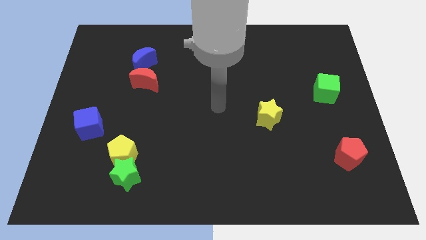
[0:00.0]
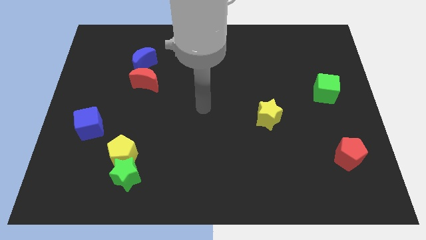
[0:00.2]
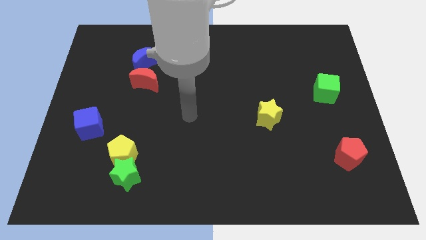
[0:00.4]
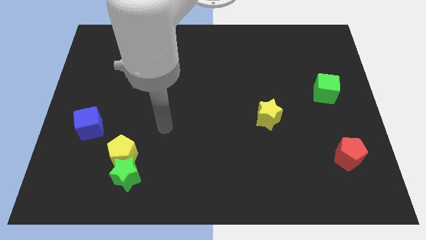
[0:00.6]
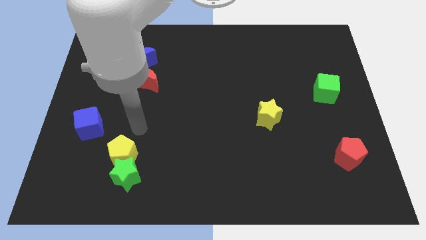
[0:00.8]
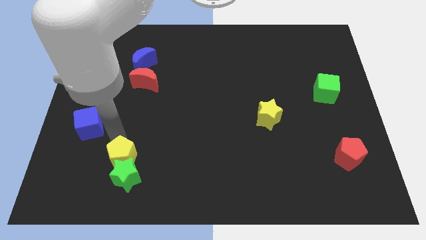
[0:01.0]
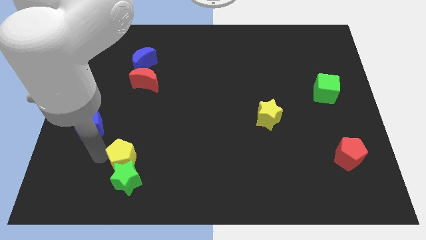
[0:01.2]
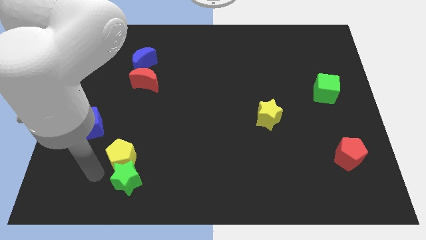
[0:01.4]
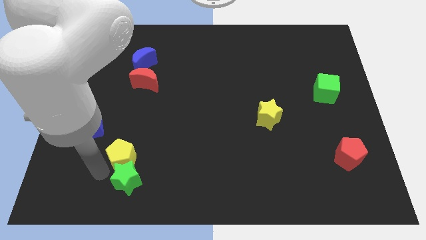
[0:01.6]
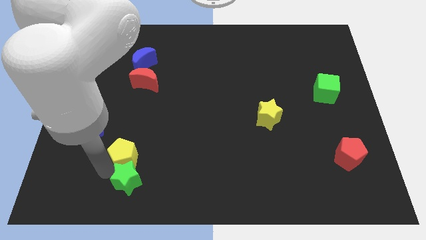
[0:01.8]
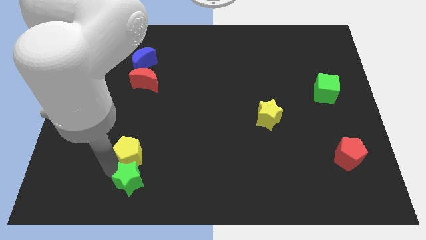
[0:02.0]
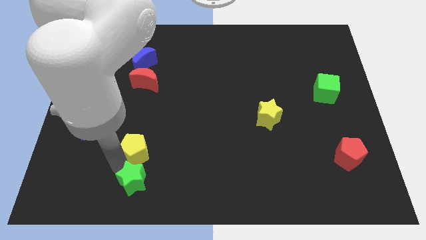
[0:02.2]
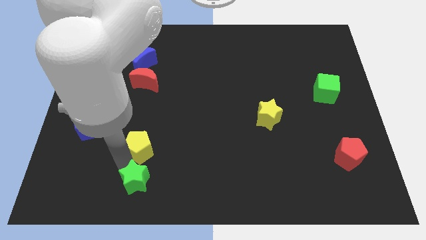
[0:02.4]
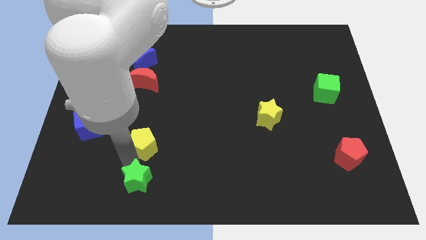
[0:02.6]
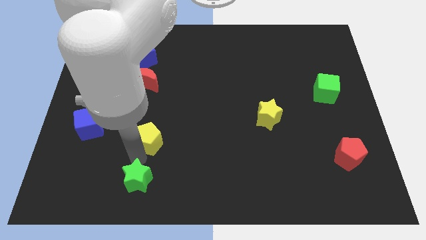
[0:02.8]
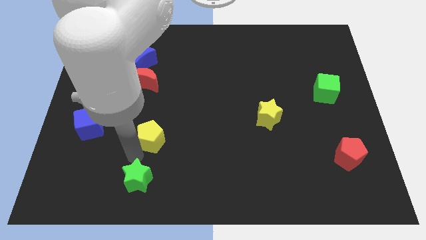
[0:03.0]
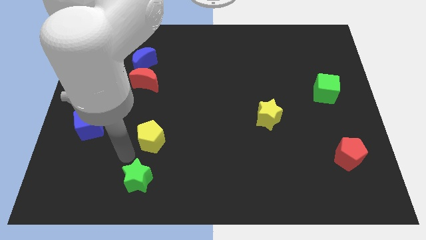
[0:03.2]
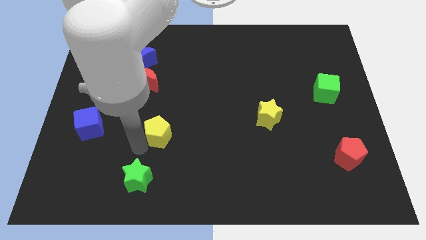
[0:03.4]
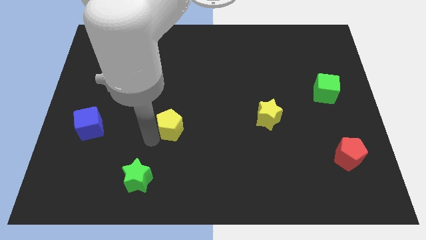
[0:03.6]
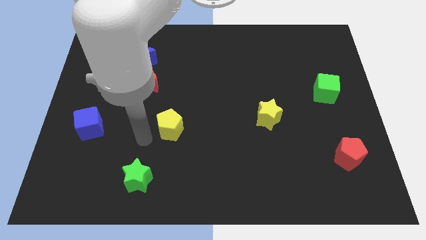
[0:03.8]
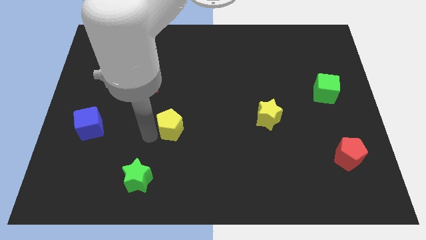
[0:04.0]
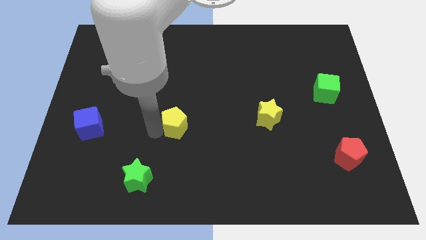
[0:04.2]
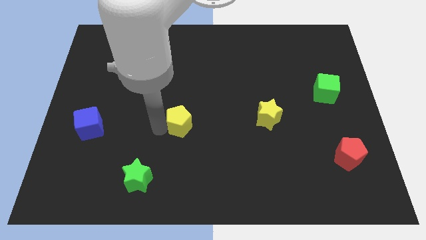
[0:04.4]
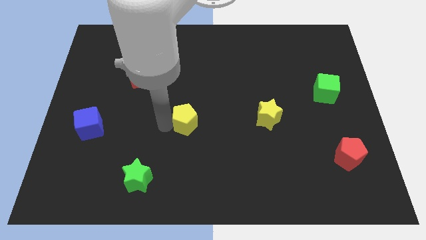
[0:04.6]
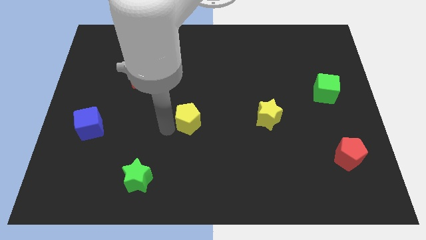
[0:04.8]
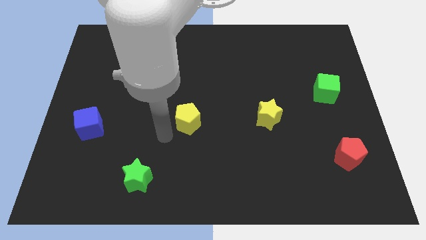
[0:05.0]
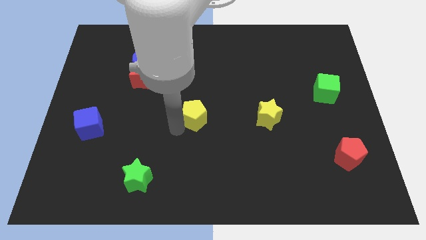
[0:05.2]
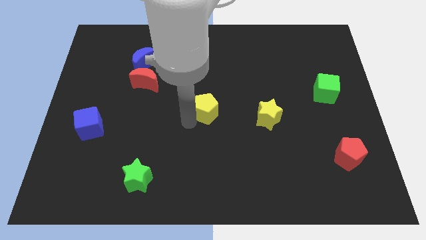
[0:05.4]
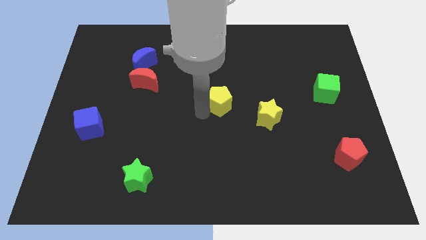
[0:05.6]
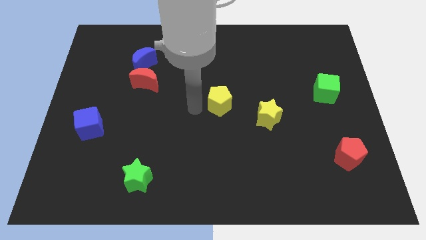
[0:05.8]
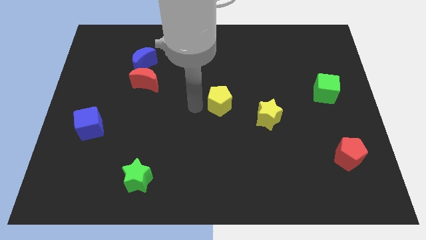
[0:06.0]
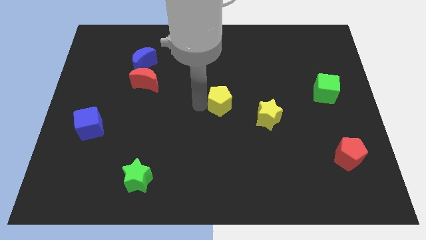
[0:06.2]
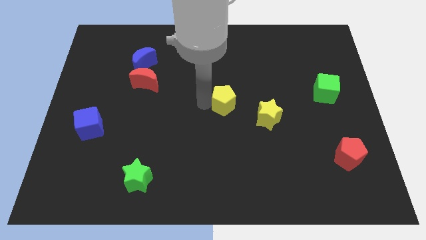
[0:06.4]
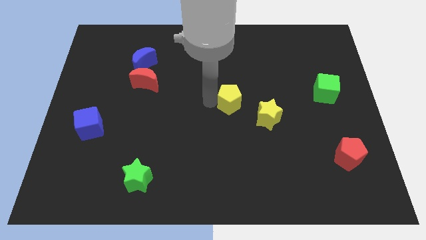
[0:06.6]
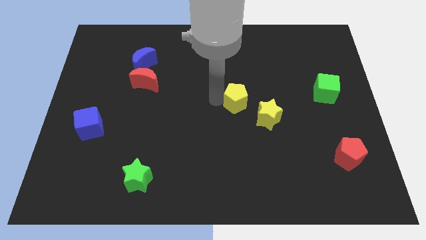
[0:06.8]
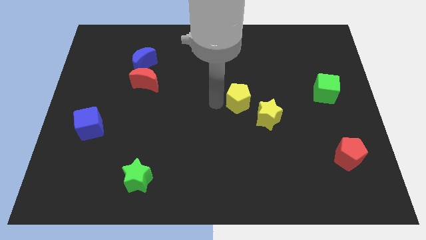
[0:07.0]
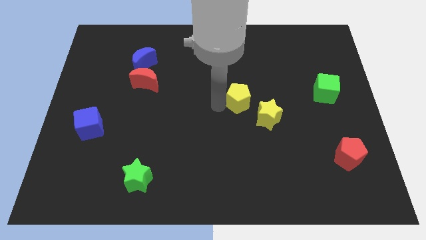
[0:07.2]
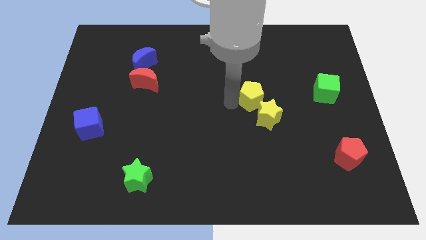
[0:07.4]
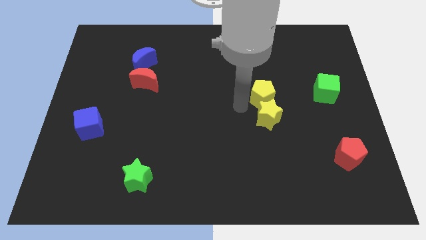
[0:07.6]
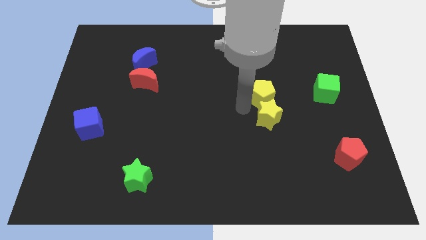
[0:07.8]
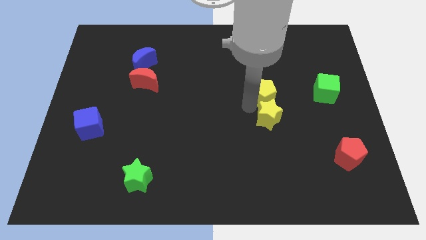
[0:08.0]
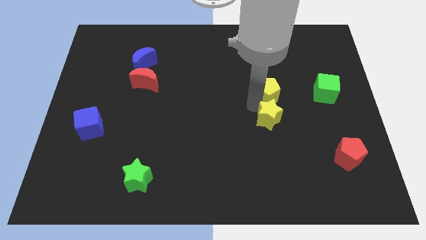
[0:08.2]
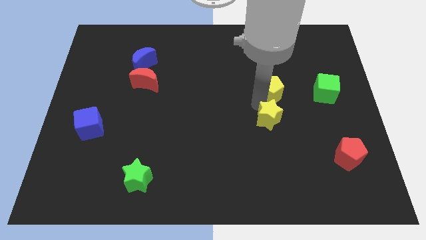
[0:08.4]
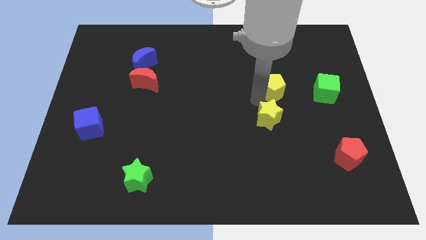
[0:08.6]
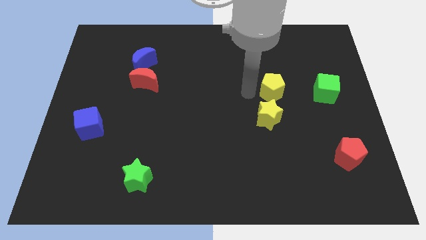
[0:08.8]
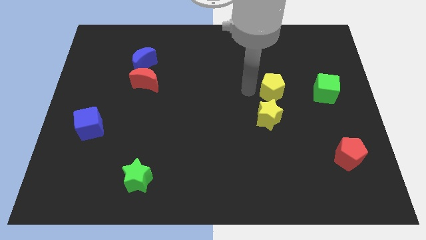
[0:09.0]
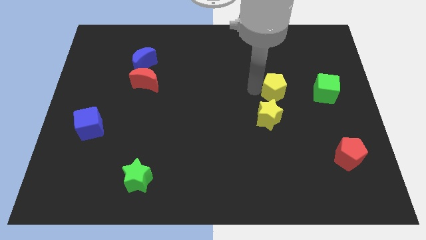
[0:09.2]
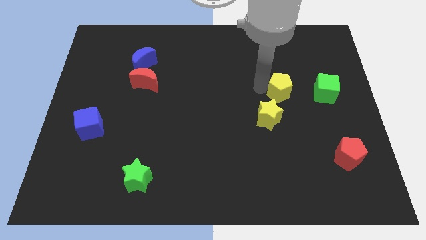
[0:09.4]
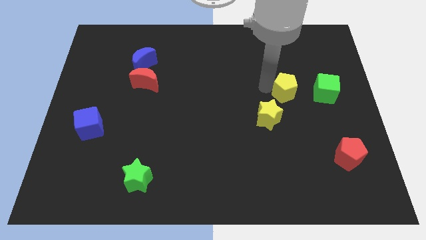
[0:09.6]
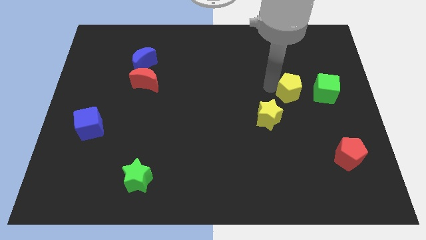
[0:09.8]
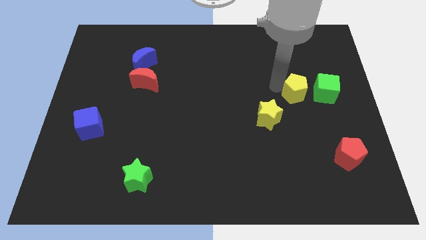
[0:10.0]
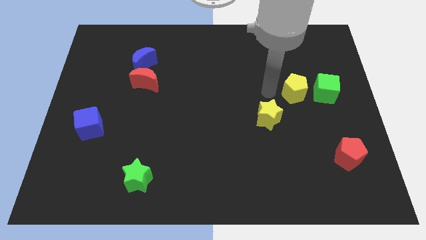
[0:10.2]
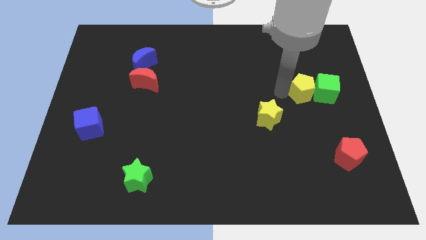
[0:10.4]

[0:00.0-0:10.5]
move the yellow pentagon close to the green cube

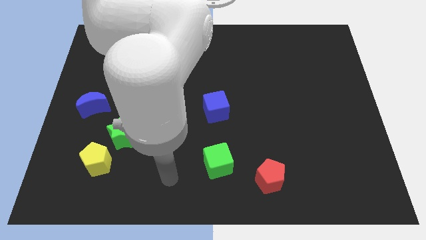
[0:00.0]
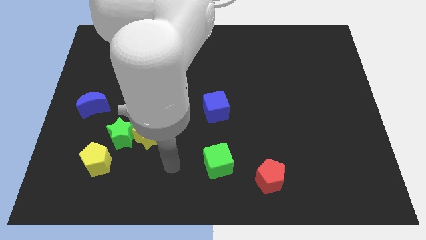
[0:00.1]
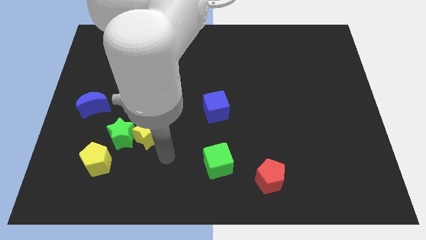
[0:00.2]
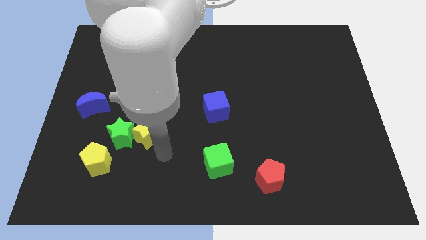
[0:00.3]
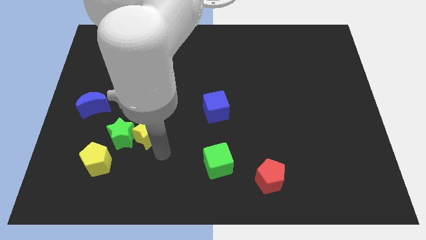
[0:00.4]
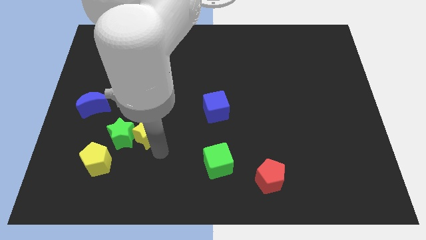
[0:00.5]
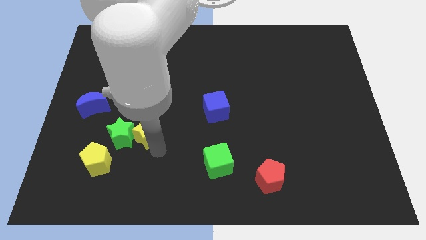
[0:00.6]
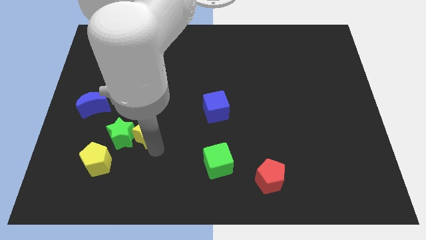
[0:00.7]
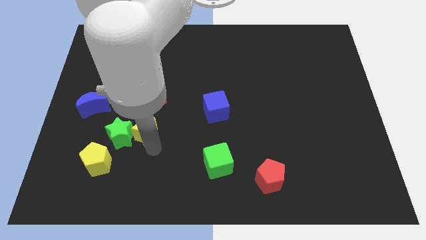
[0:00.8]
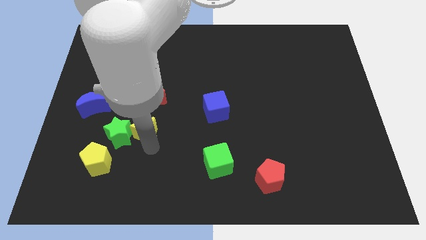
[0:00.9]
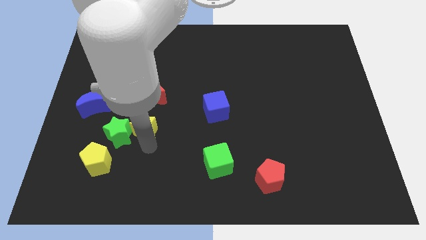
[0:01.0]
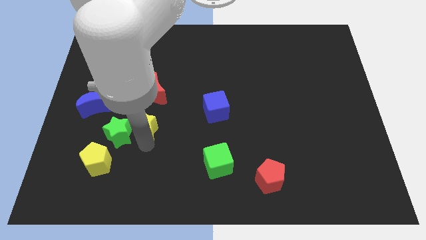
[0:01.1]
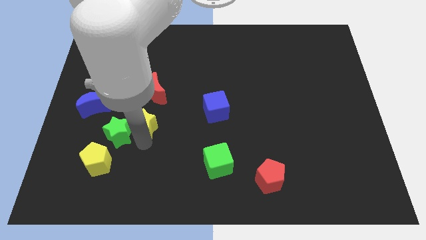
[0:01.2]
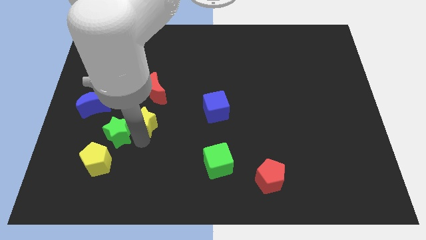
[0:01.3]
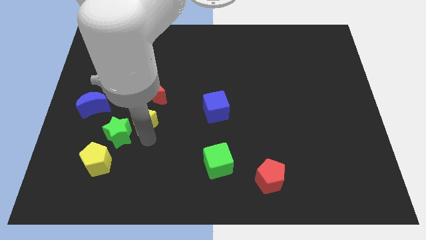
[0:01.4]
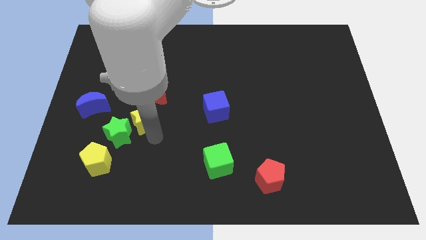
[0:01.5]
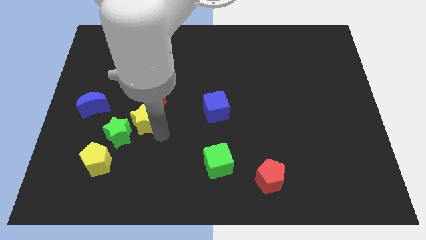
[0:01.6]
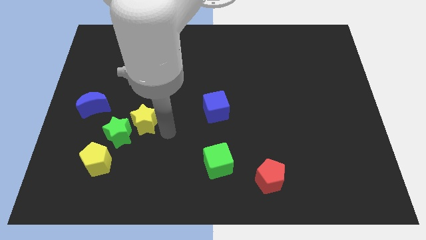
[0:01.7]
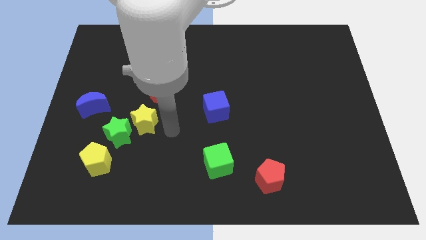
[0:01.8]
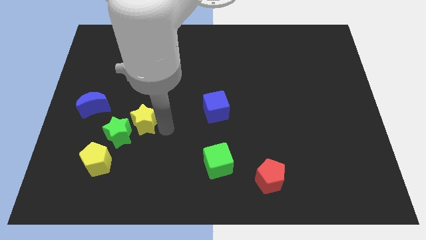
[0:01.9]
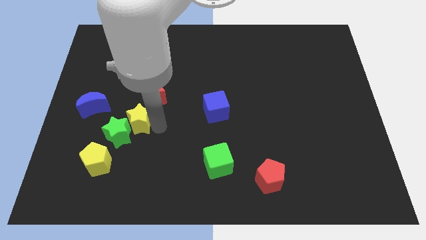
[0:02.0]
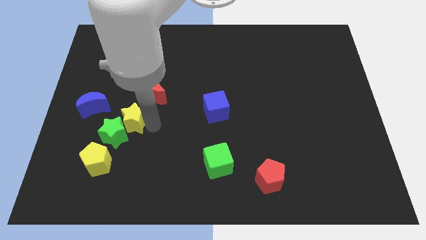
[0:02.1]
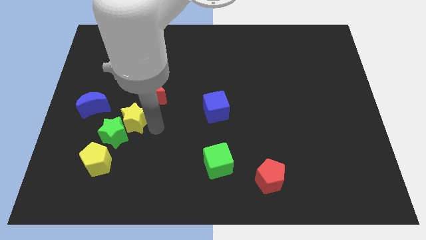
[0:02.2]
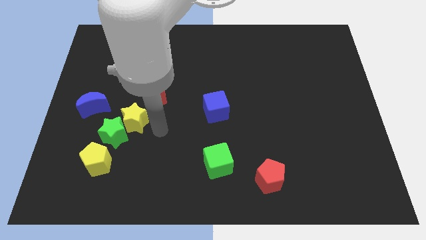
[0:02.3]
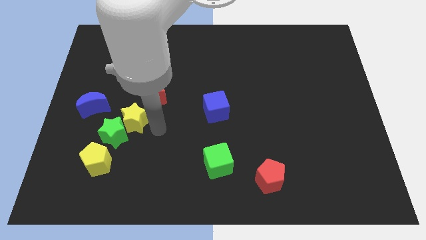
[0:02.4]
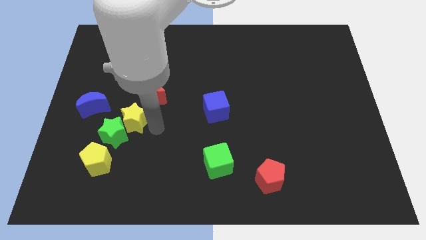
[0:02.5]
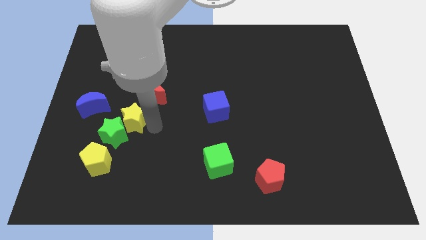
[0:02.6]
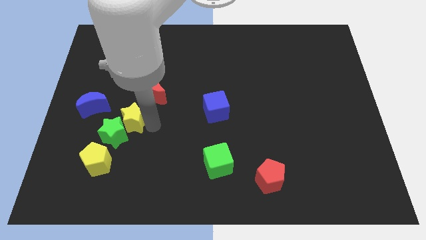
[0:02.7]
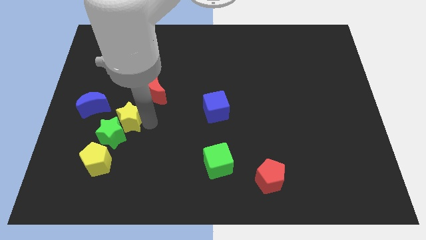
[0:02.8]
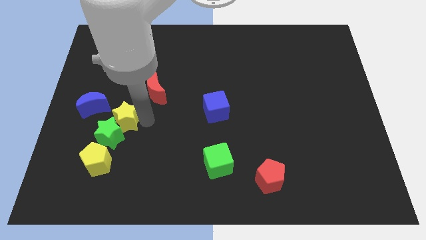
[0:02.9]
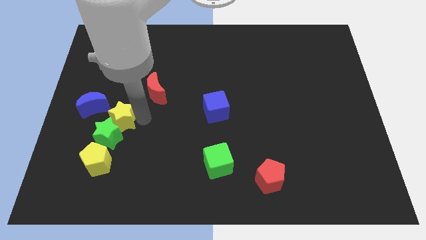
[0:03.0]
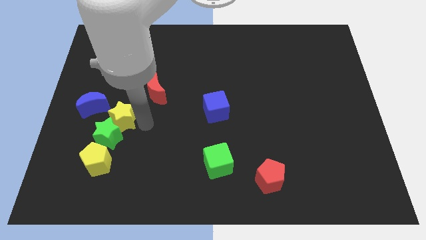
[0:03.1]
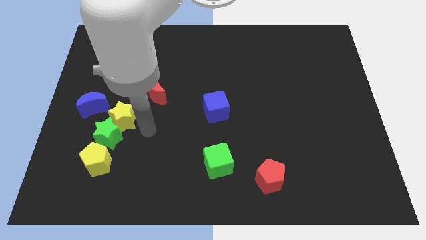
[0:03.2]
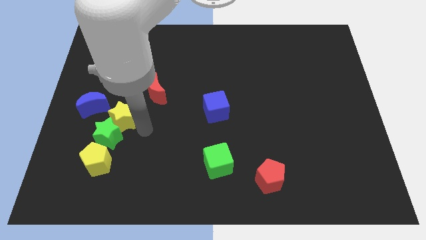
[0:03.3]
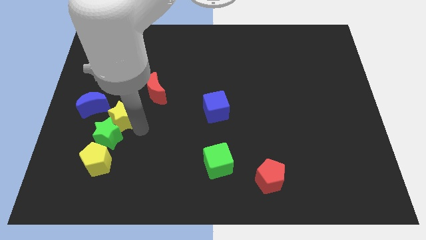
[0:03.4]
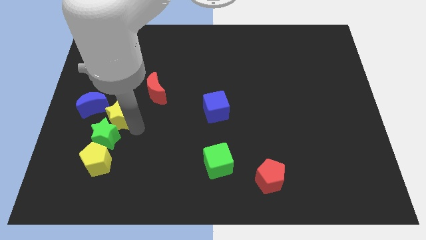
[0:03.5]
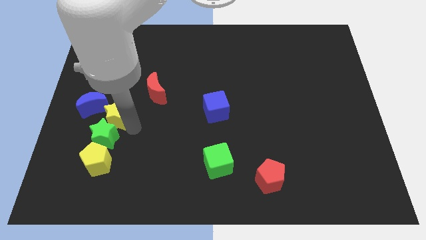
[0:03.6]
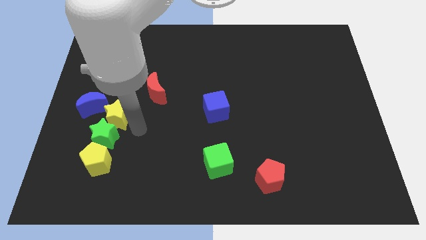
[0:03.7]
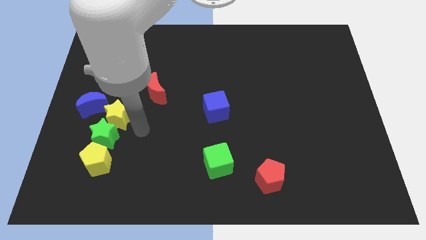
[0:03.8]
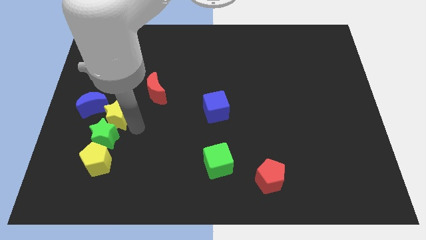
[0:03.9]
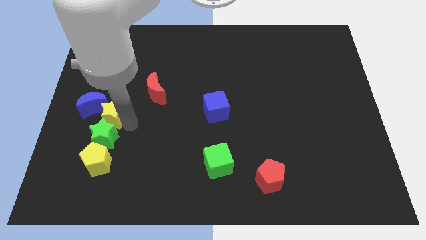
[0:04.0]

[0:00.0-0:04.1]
push the yellow star to the blue moon
